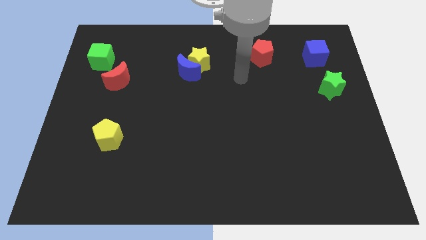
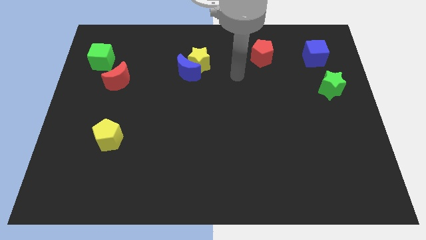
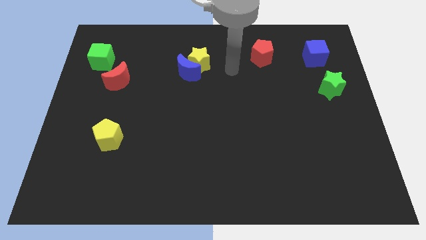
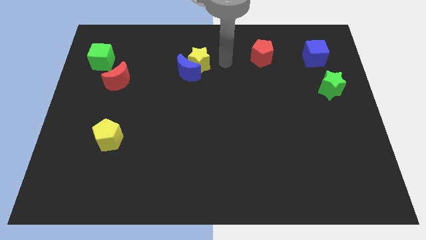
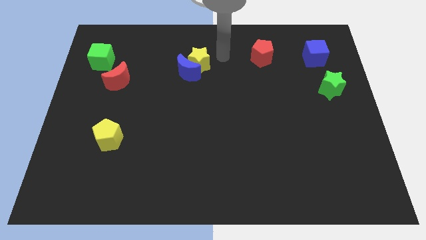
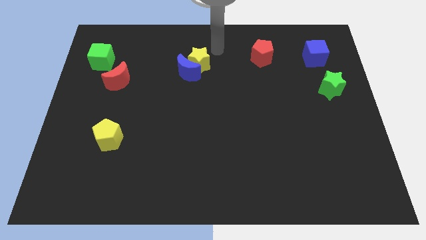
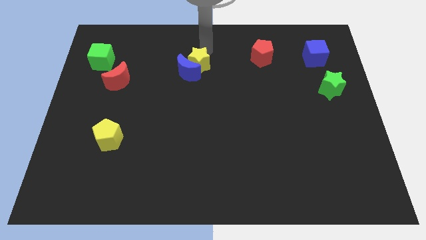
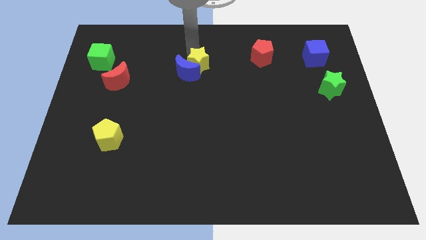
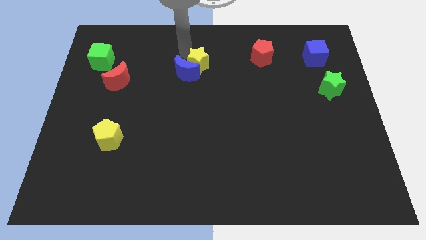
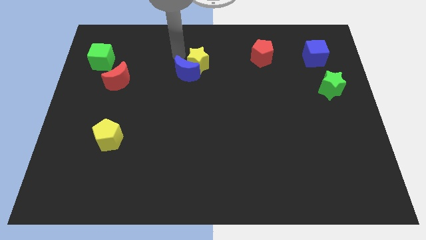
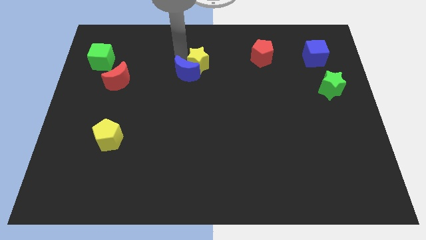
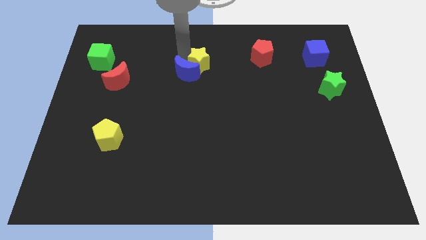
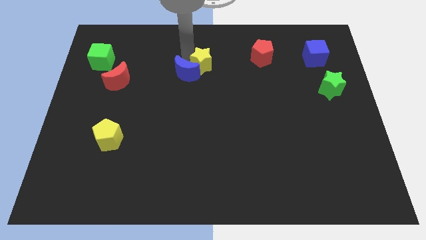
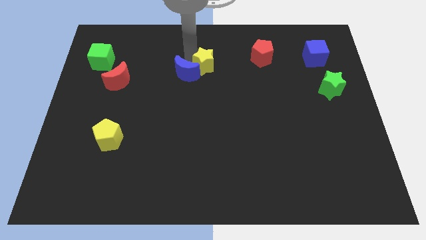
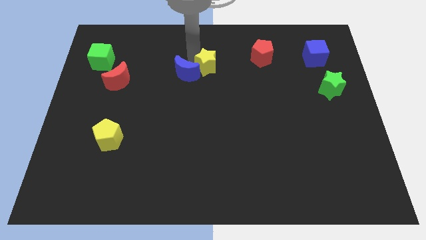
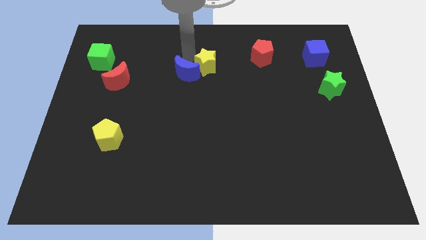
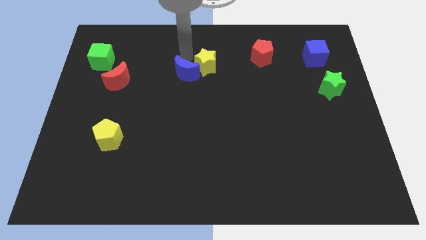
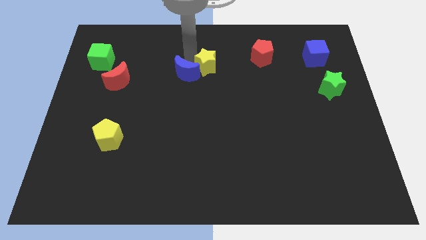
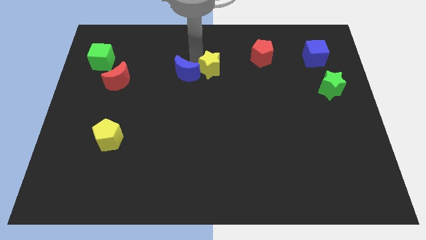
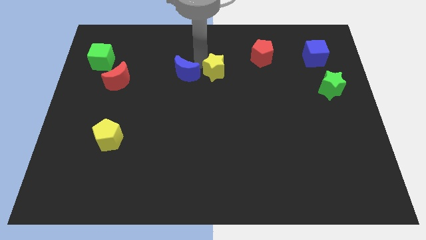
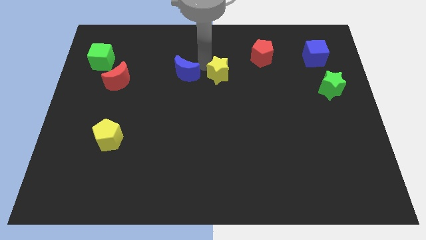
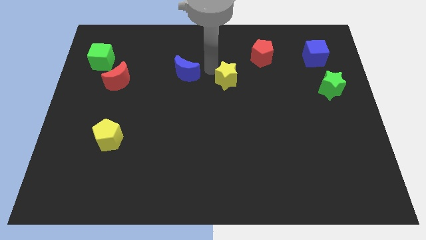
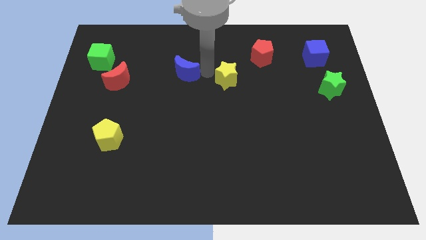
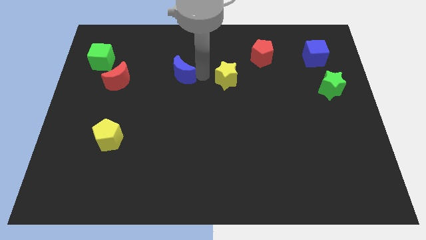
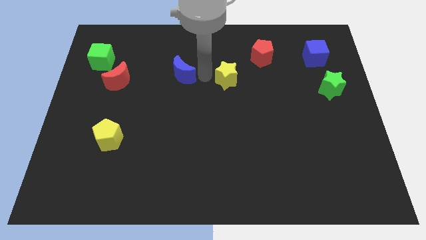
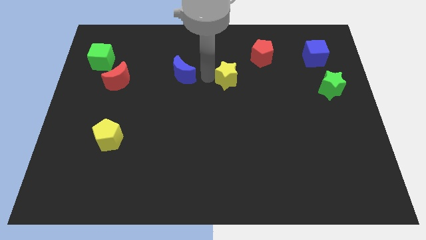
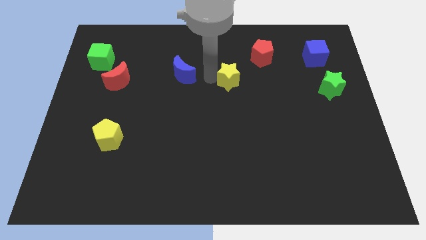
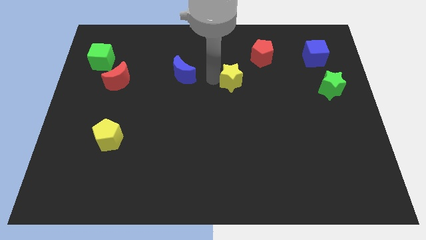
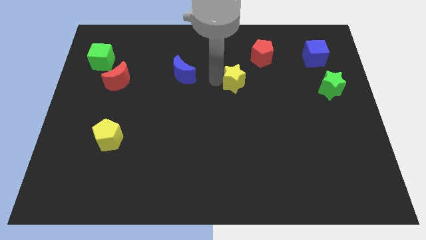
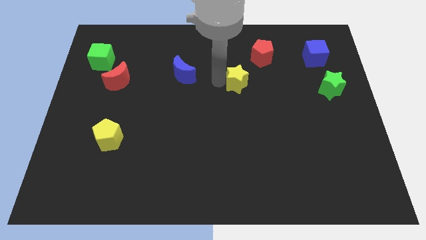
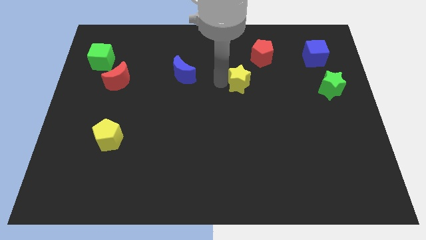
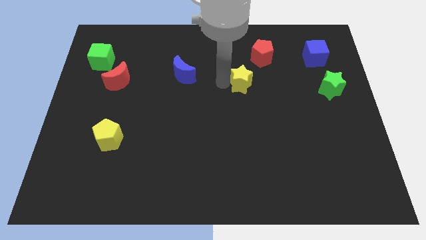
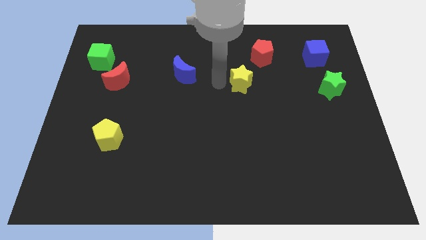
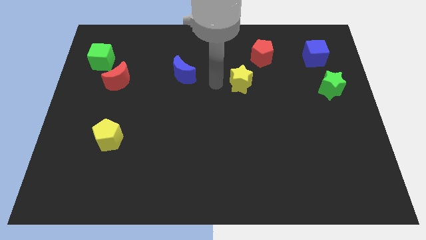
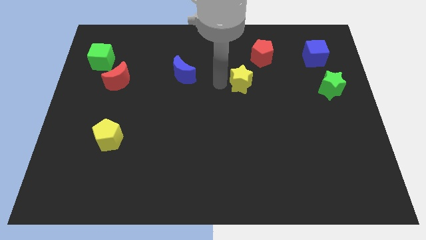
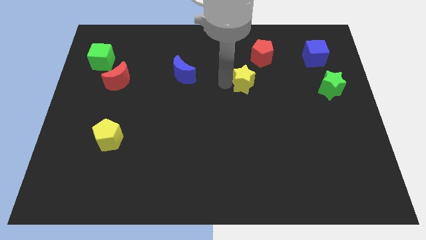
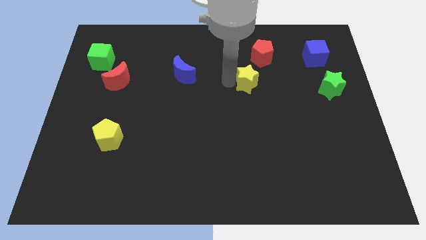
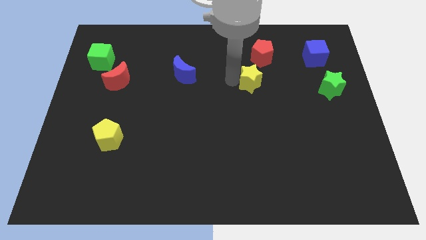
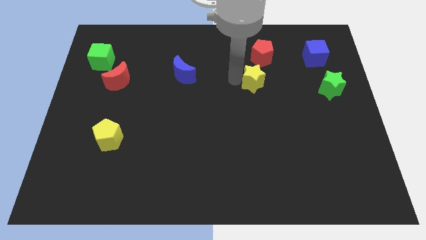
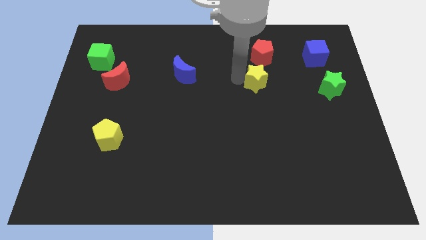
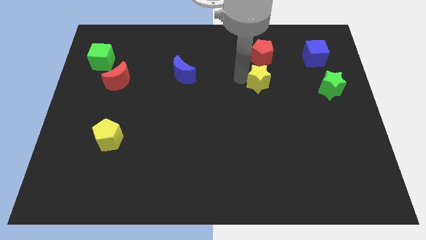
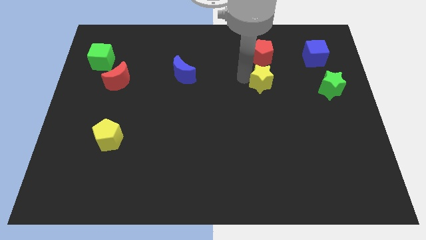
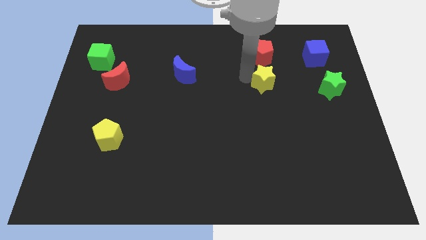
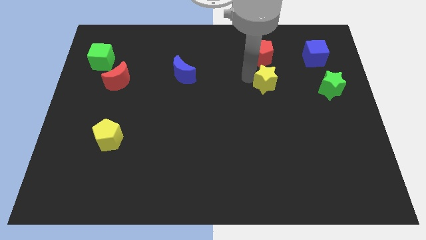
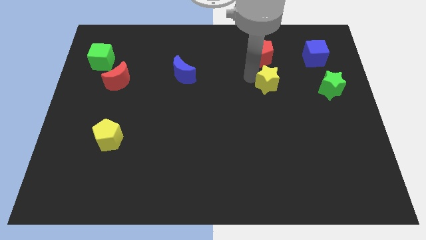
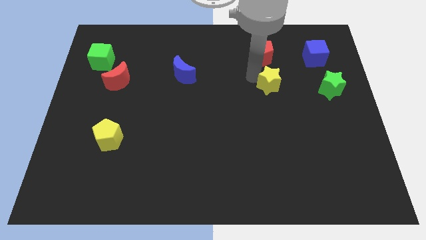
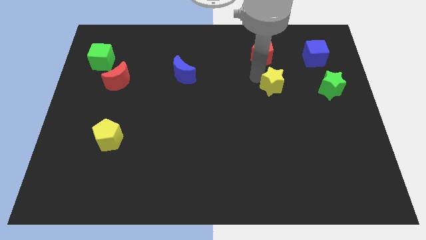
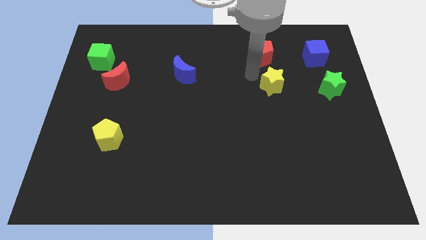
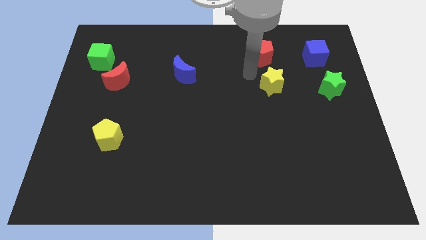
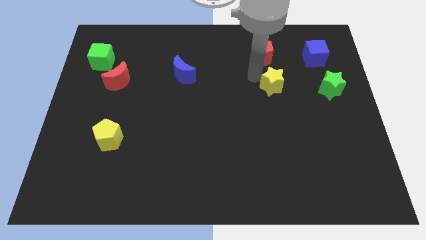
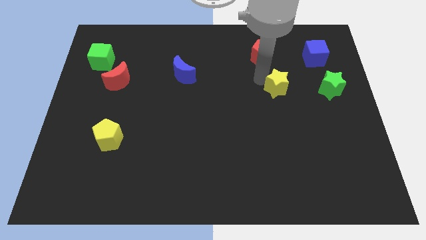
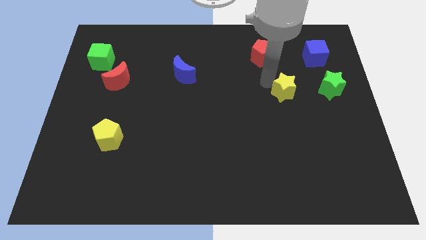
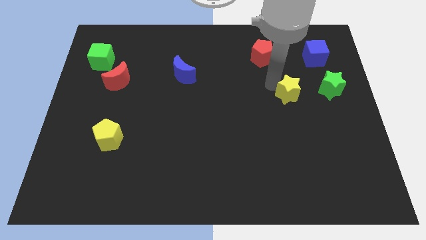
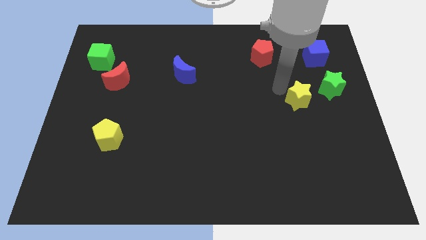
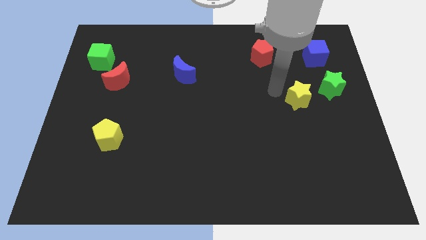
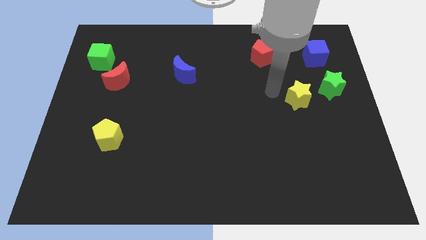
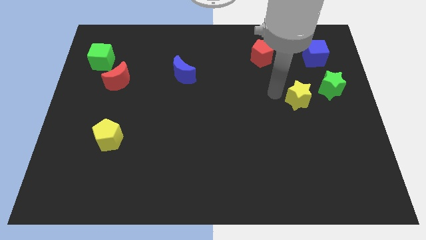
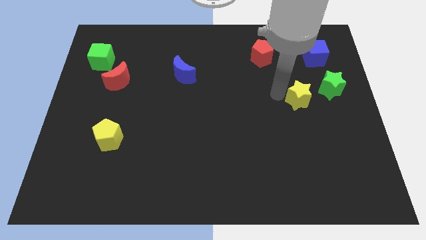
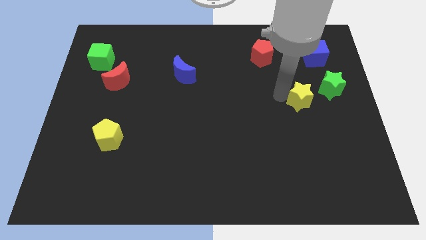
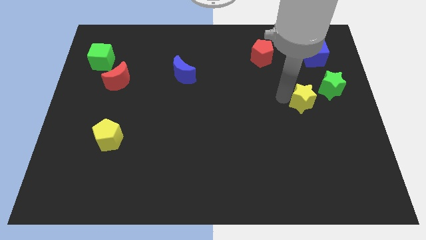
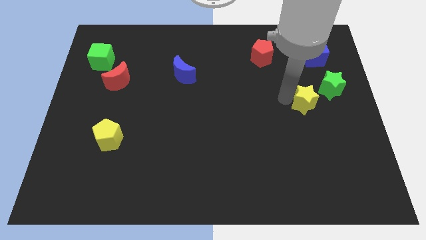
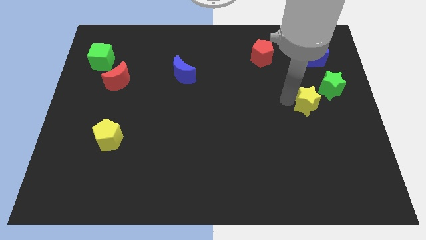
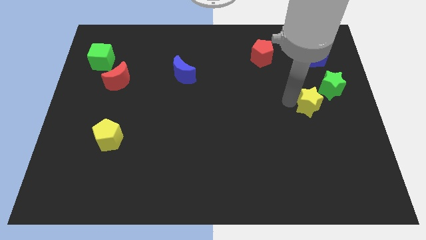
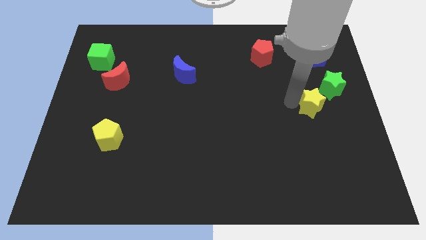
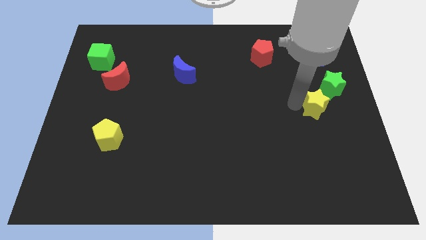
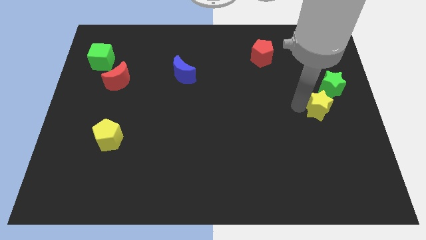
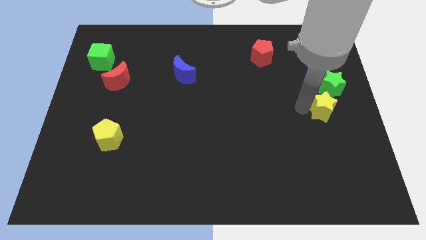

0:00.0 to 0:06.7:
move the yellow star to the right side of the board
